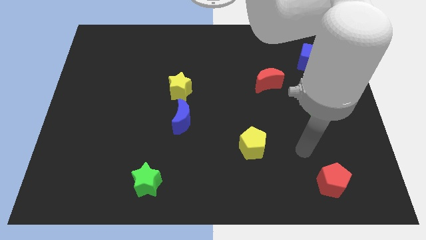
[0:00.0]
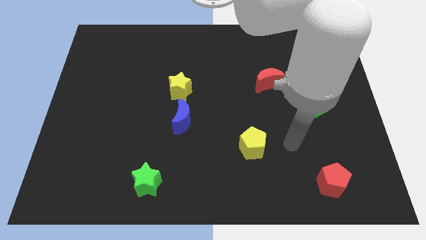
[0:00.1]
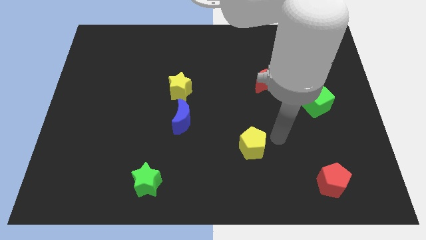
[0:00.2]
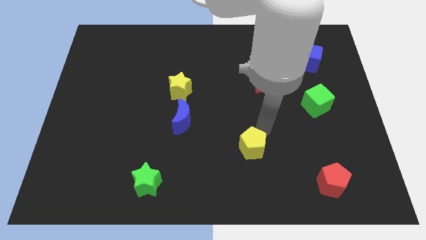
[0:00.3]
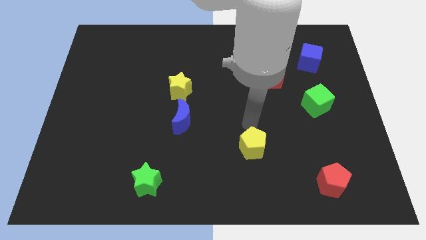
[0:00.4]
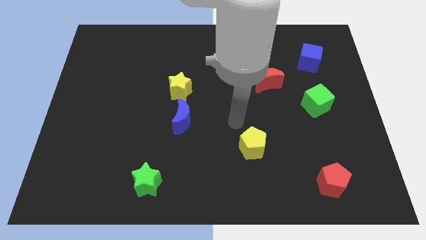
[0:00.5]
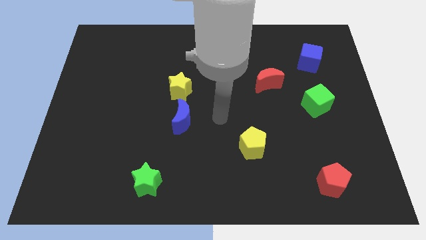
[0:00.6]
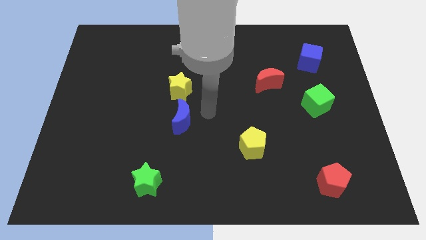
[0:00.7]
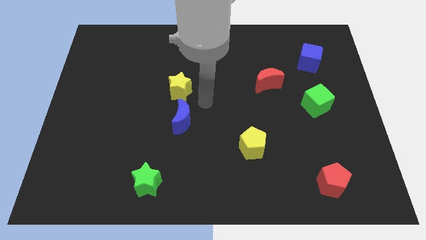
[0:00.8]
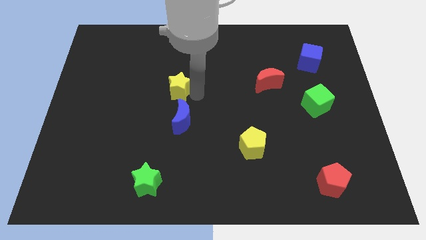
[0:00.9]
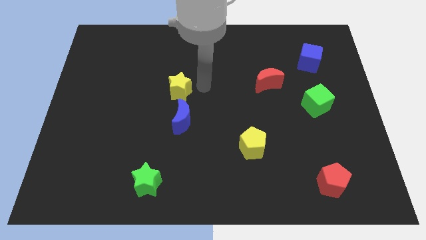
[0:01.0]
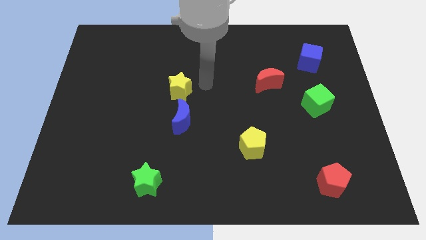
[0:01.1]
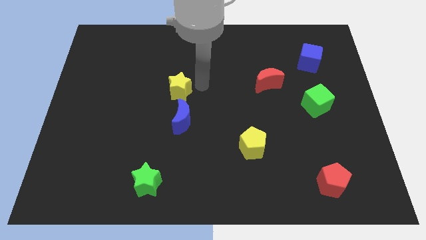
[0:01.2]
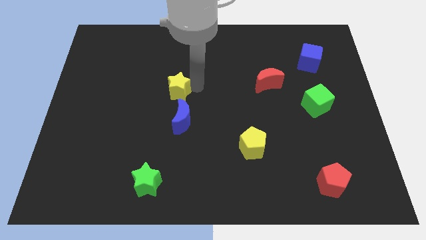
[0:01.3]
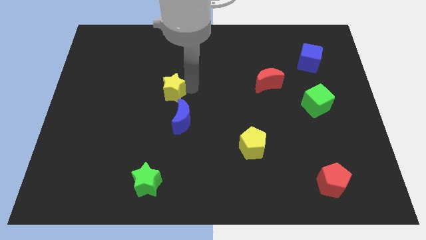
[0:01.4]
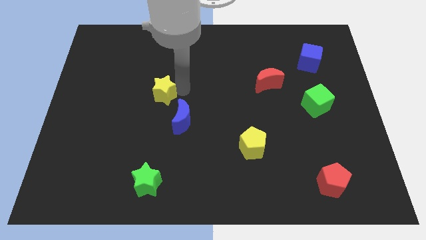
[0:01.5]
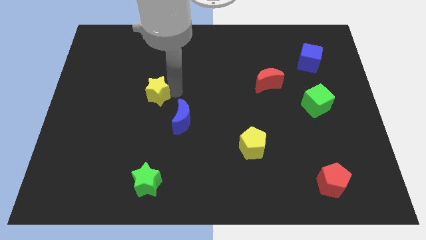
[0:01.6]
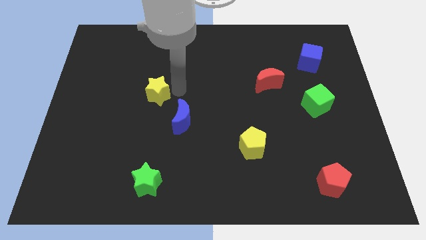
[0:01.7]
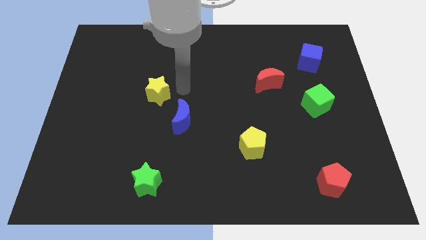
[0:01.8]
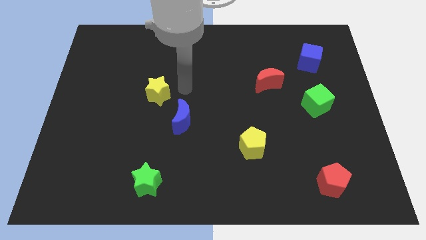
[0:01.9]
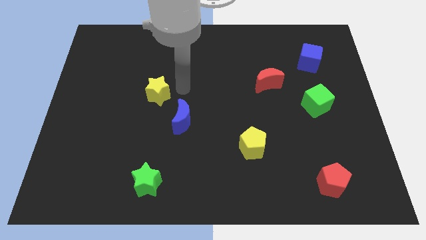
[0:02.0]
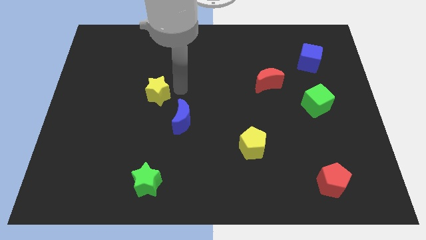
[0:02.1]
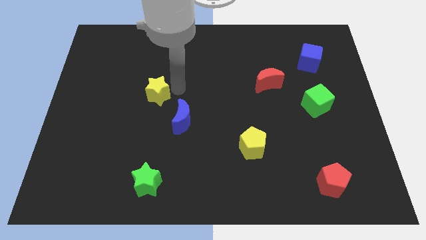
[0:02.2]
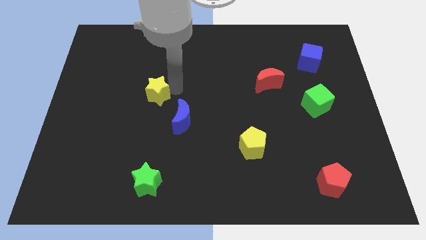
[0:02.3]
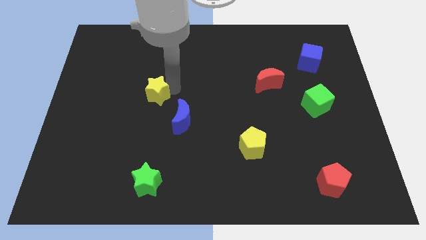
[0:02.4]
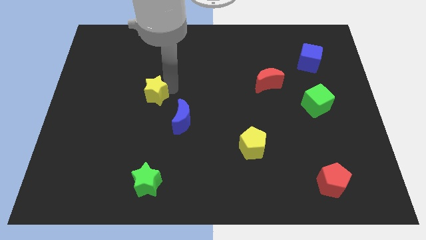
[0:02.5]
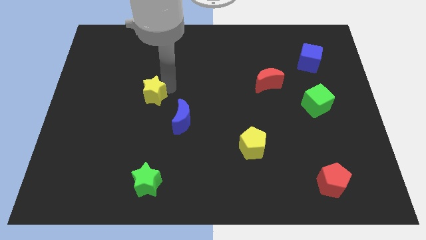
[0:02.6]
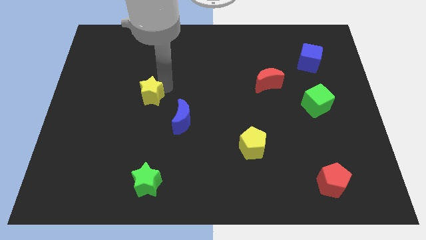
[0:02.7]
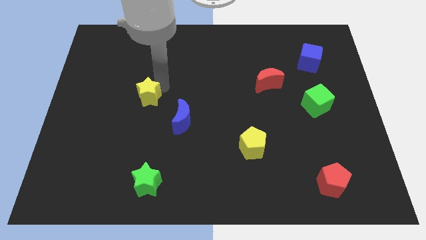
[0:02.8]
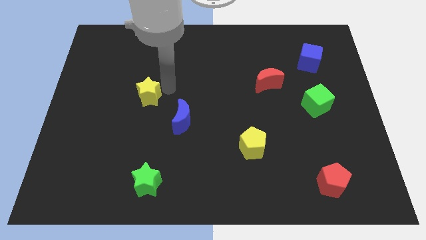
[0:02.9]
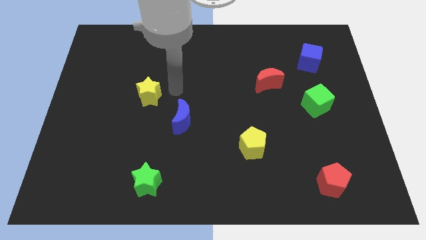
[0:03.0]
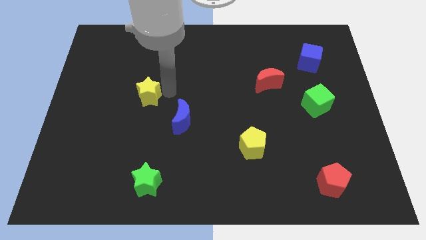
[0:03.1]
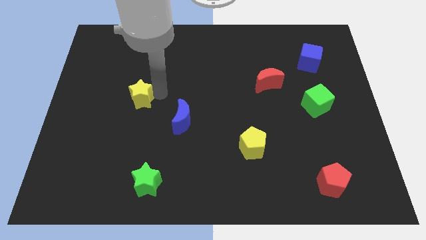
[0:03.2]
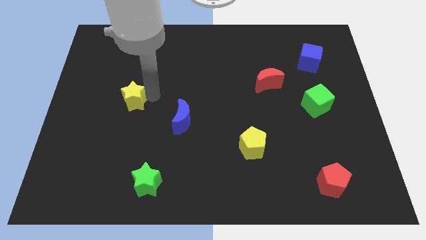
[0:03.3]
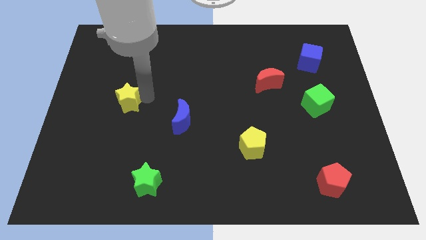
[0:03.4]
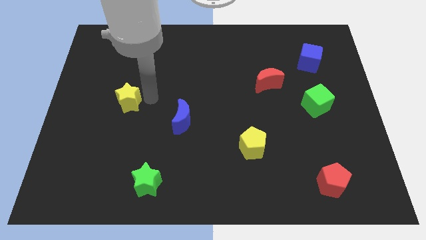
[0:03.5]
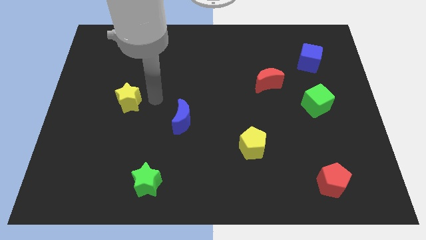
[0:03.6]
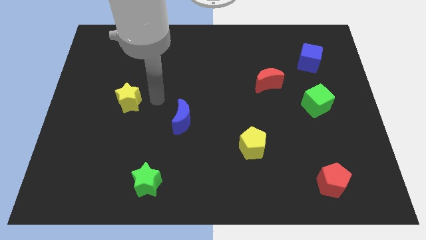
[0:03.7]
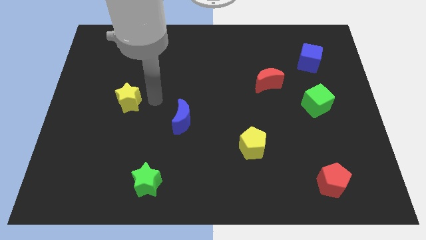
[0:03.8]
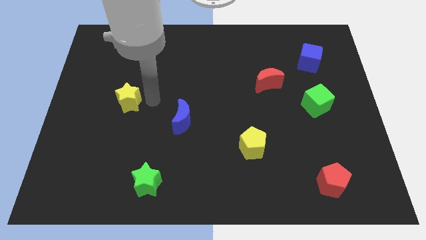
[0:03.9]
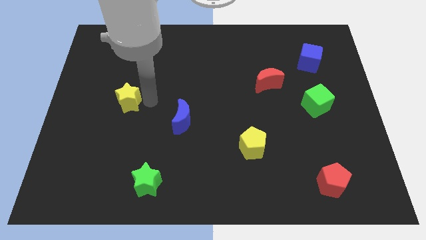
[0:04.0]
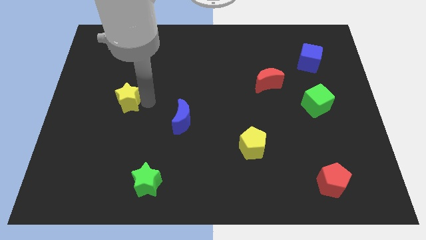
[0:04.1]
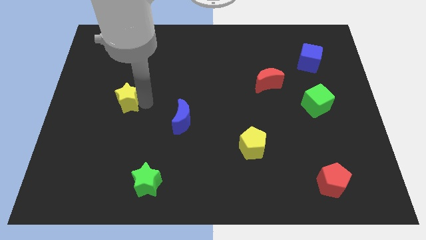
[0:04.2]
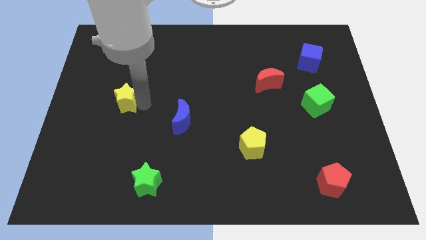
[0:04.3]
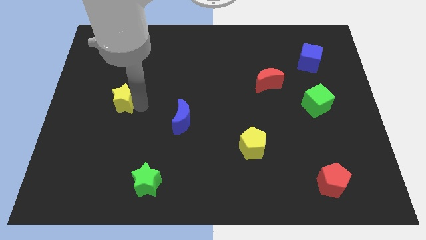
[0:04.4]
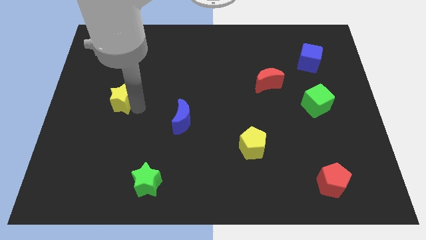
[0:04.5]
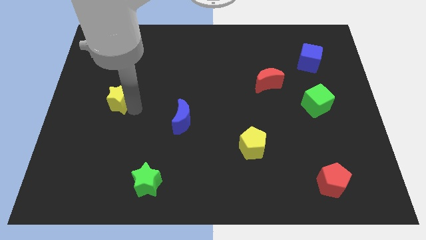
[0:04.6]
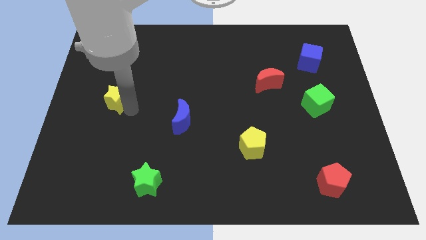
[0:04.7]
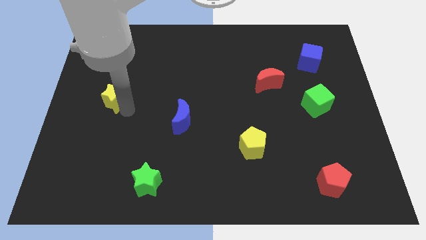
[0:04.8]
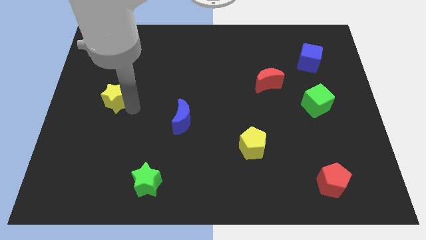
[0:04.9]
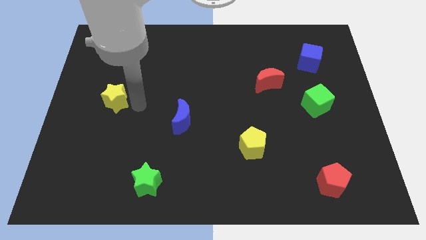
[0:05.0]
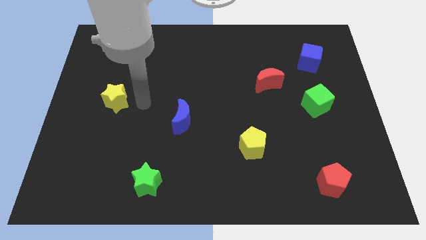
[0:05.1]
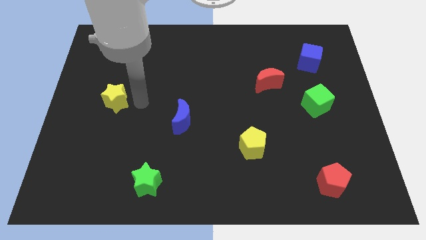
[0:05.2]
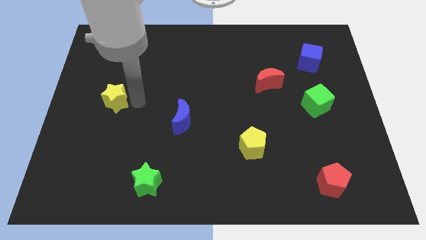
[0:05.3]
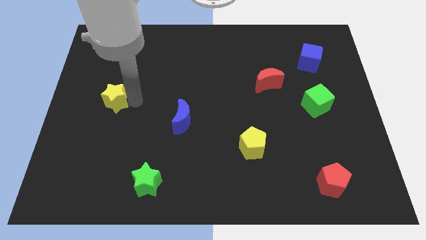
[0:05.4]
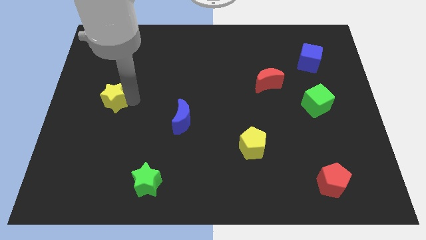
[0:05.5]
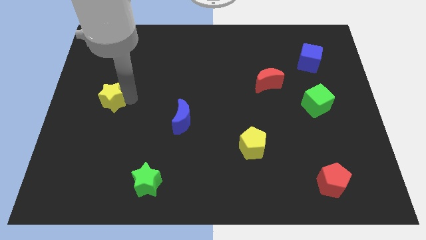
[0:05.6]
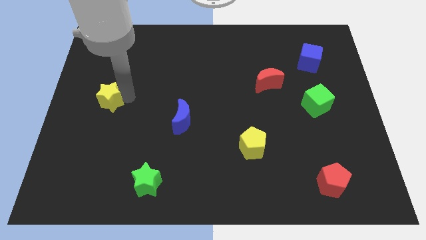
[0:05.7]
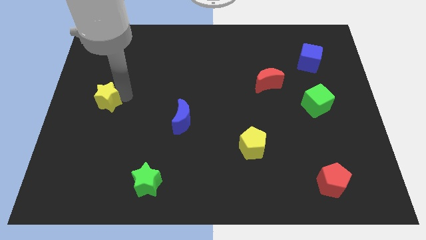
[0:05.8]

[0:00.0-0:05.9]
push the yellow star to the left side

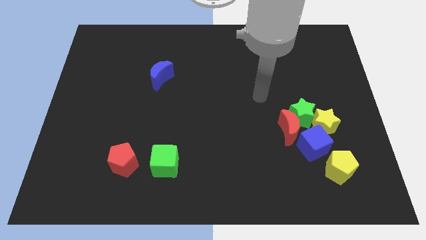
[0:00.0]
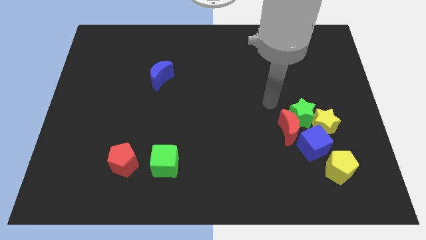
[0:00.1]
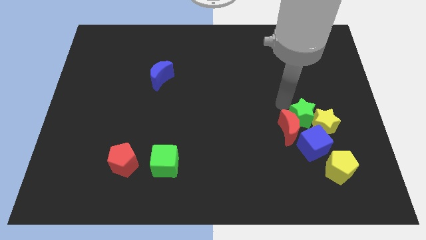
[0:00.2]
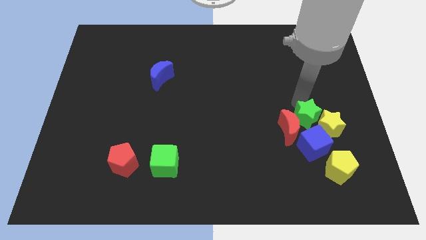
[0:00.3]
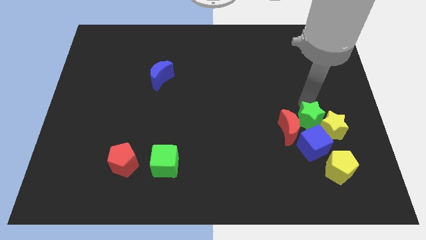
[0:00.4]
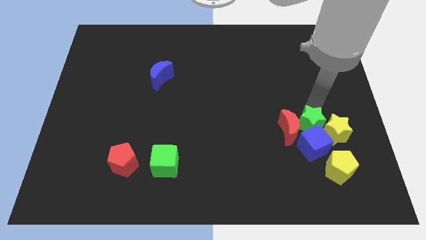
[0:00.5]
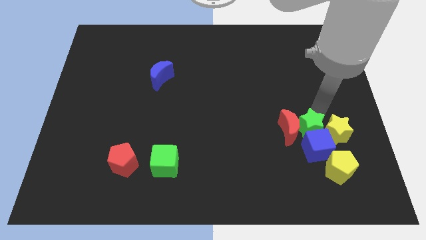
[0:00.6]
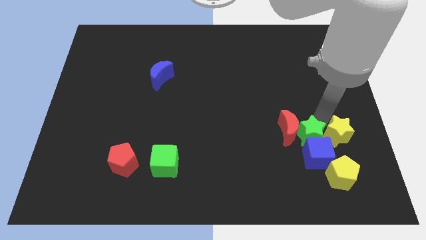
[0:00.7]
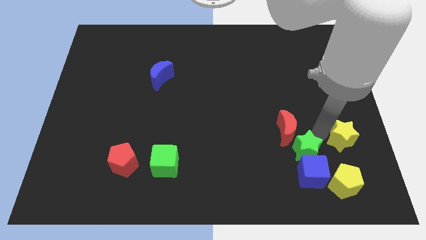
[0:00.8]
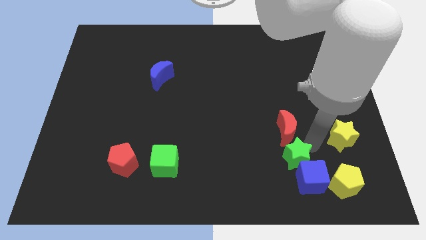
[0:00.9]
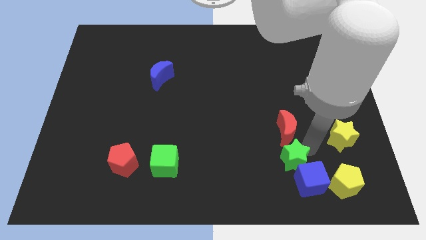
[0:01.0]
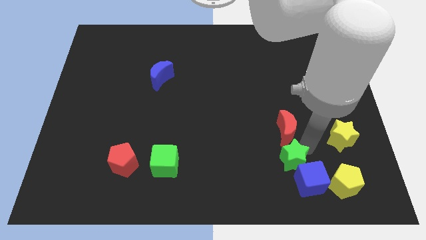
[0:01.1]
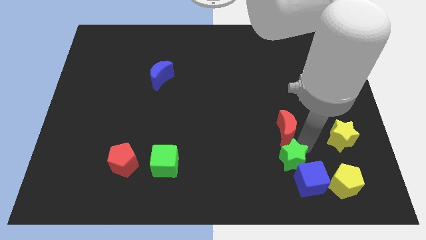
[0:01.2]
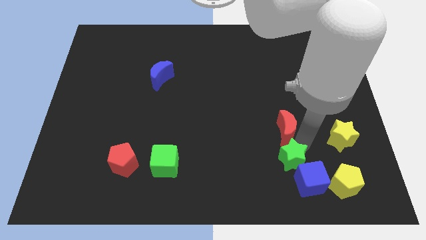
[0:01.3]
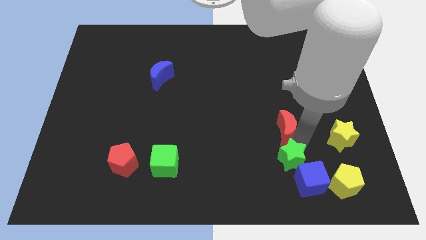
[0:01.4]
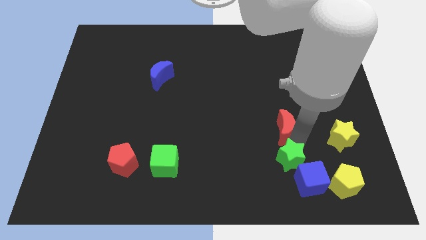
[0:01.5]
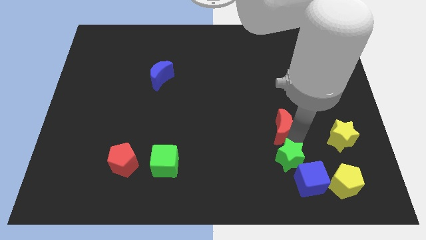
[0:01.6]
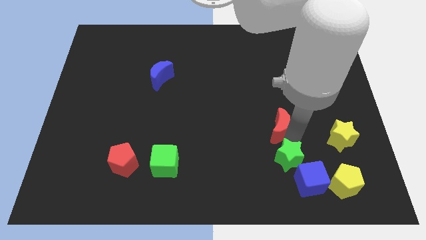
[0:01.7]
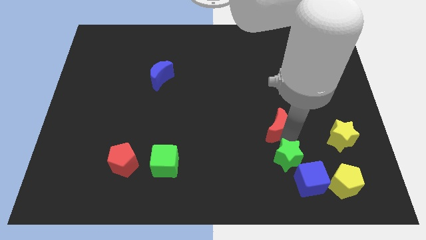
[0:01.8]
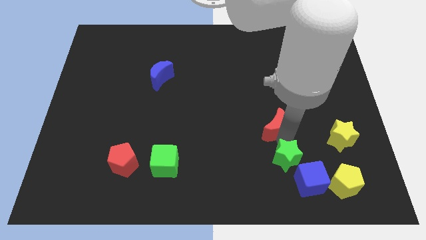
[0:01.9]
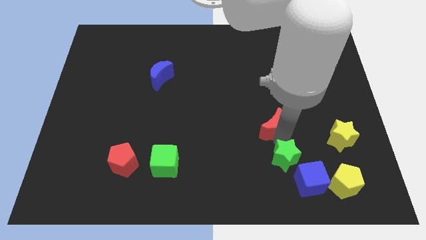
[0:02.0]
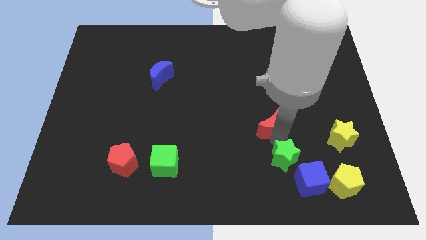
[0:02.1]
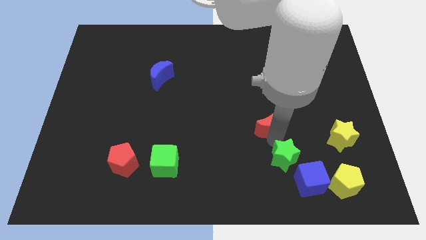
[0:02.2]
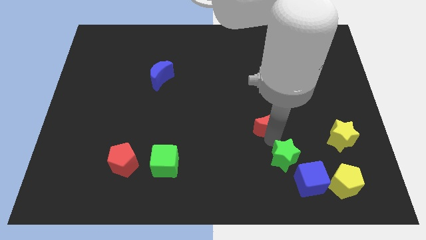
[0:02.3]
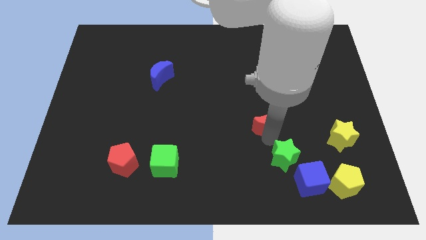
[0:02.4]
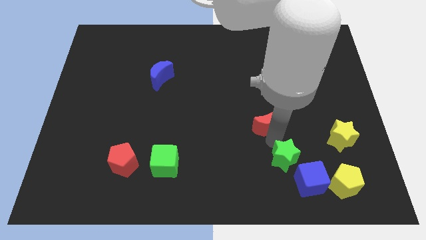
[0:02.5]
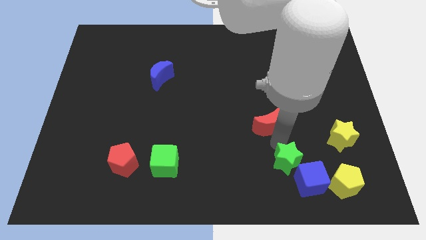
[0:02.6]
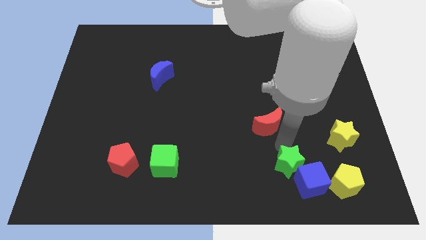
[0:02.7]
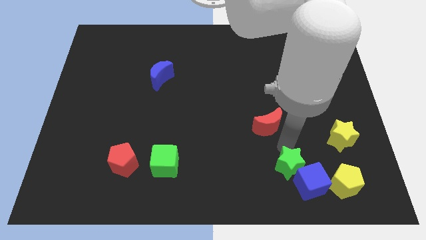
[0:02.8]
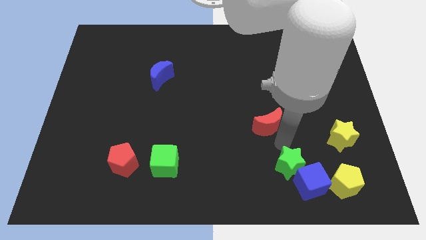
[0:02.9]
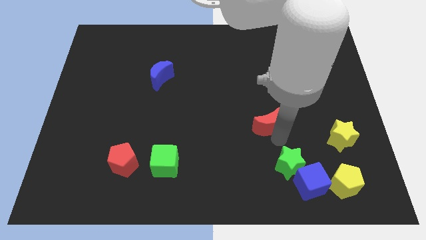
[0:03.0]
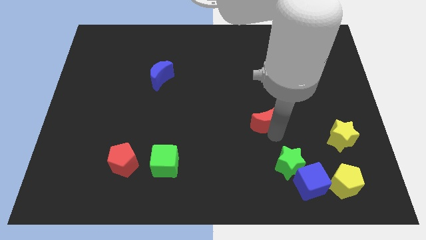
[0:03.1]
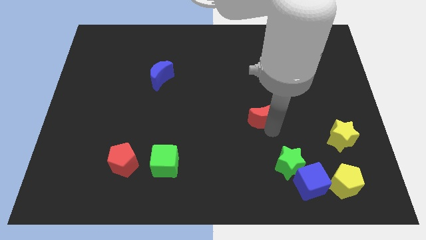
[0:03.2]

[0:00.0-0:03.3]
move the red moon to the middle
